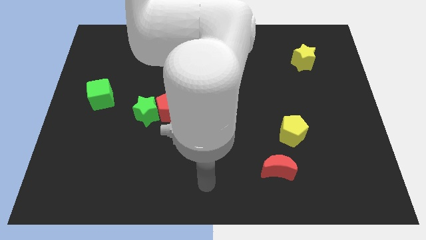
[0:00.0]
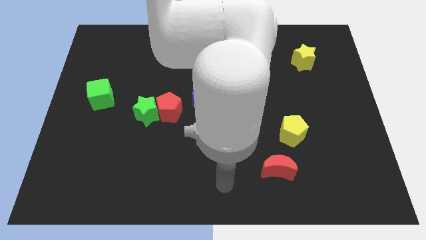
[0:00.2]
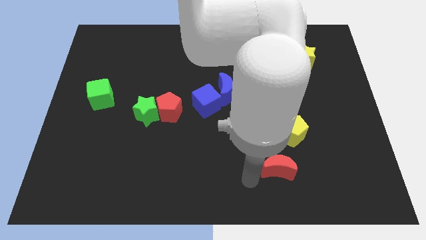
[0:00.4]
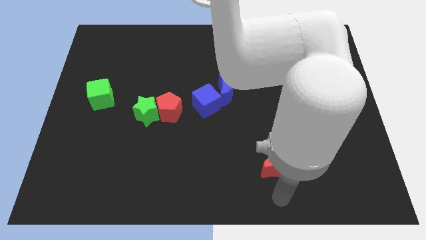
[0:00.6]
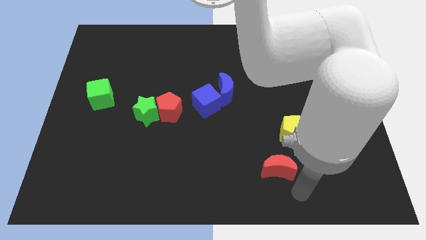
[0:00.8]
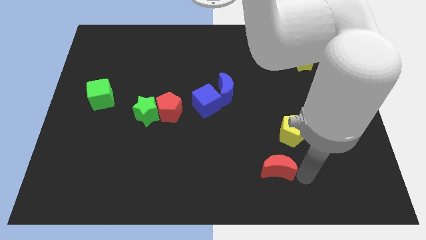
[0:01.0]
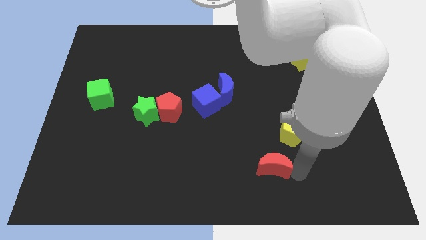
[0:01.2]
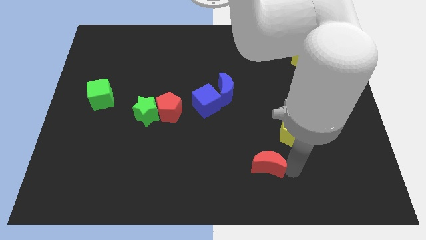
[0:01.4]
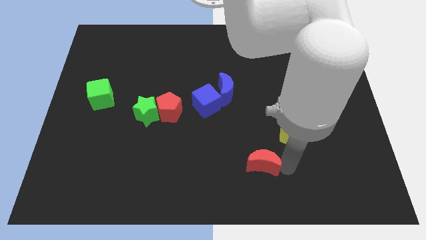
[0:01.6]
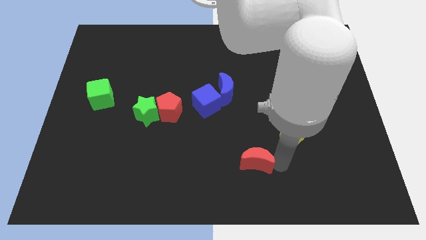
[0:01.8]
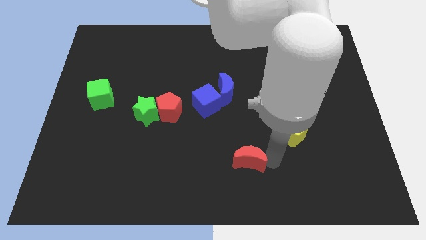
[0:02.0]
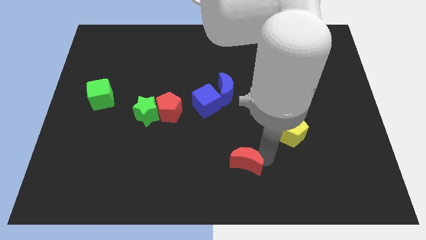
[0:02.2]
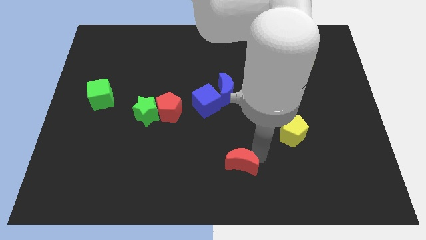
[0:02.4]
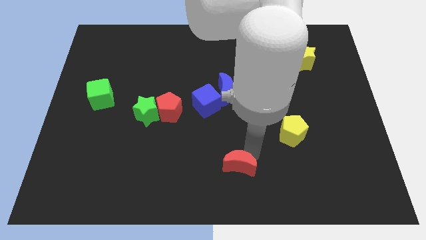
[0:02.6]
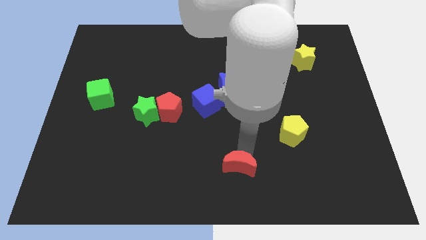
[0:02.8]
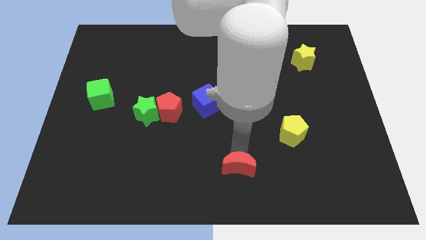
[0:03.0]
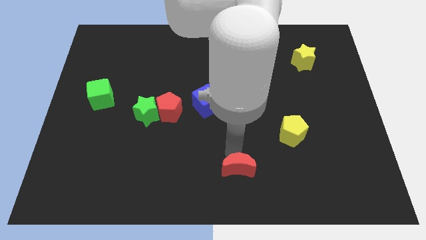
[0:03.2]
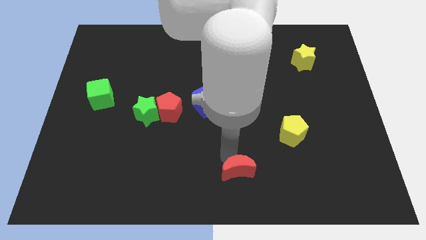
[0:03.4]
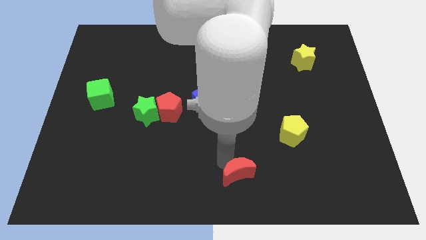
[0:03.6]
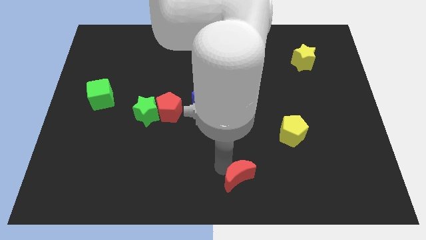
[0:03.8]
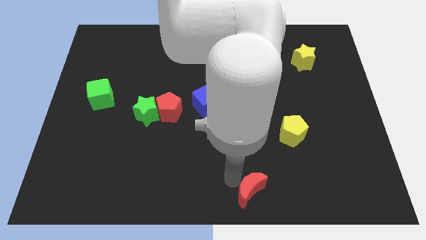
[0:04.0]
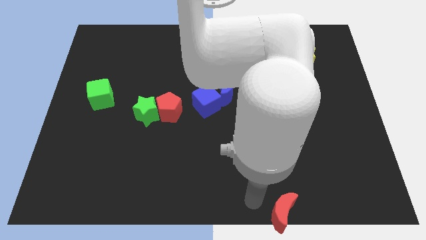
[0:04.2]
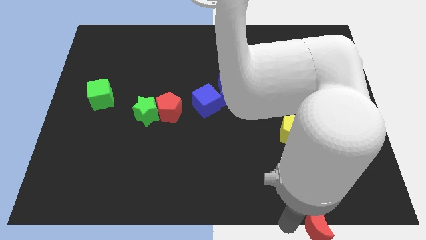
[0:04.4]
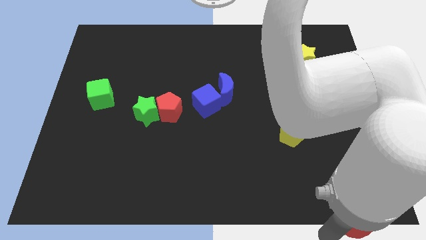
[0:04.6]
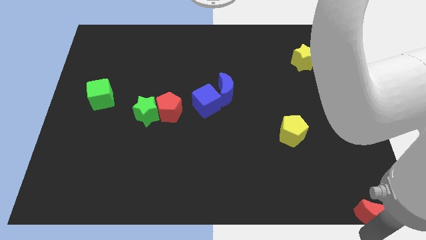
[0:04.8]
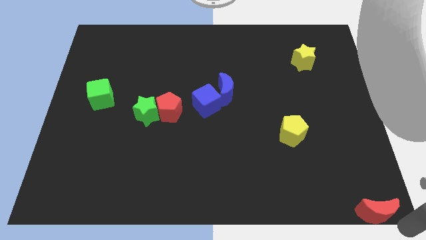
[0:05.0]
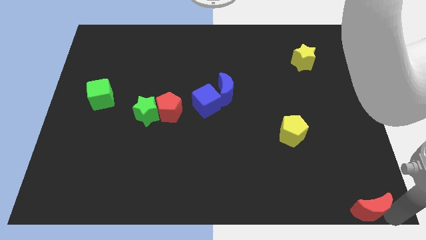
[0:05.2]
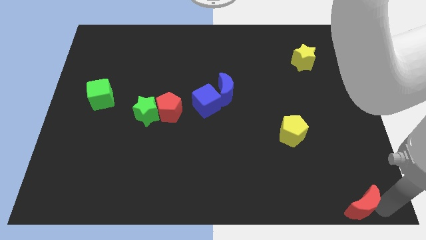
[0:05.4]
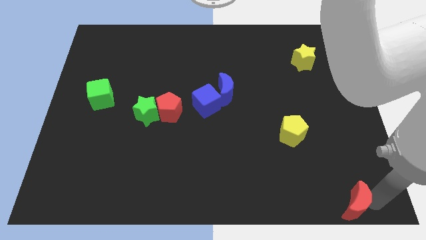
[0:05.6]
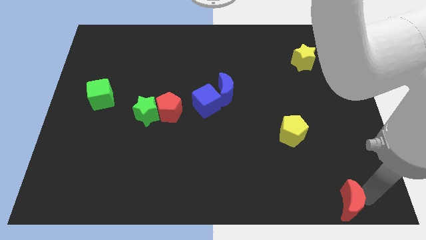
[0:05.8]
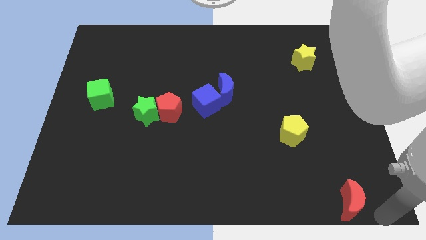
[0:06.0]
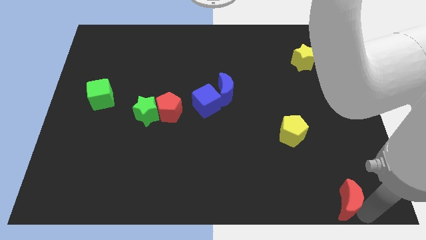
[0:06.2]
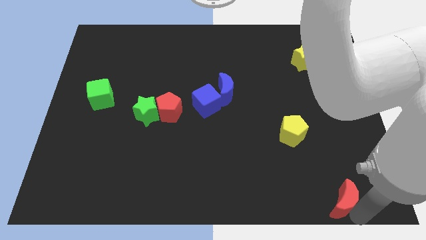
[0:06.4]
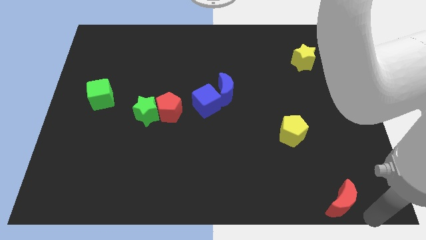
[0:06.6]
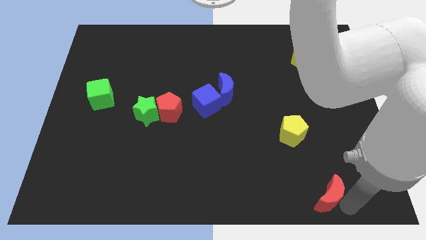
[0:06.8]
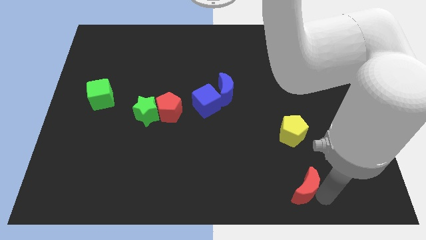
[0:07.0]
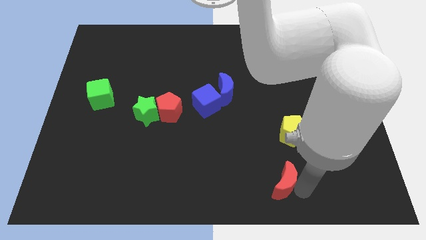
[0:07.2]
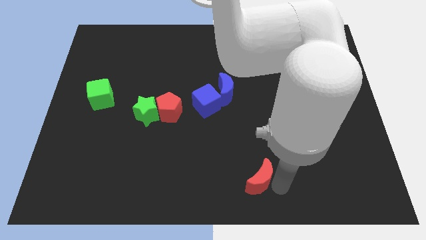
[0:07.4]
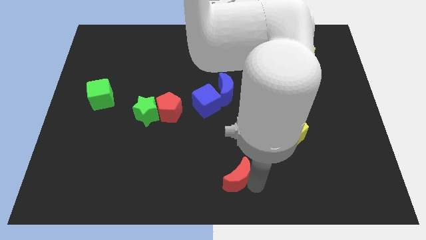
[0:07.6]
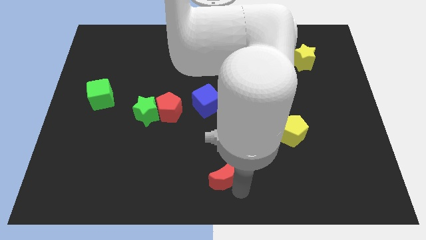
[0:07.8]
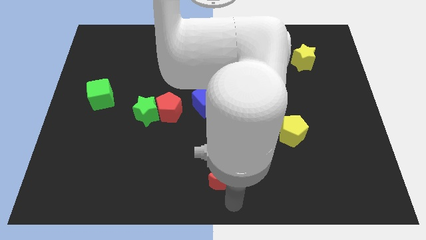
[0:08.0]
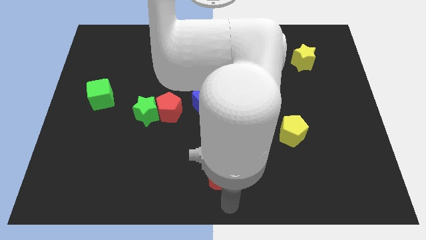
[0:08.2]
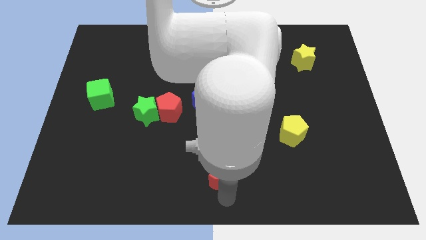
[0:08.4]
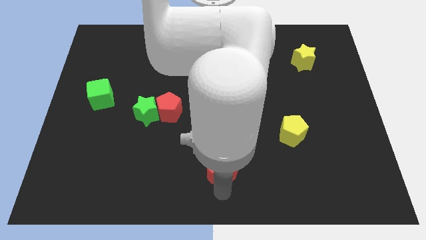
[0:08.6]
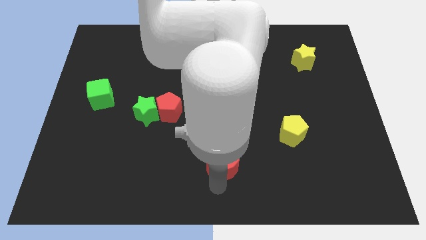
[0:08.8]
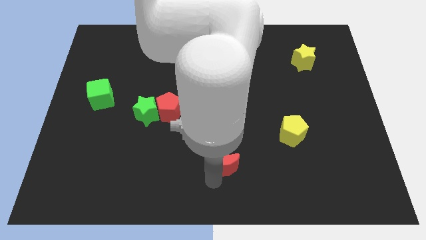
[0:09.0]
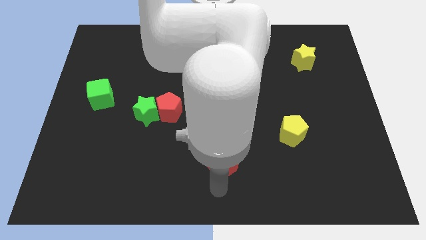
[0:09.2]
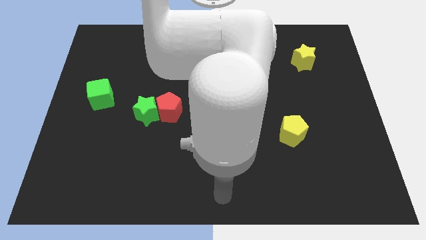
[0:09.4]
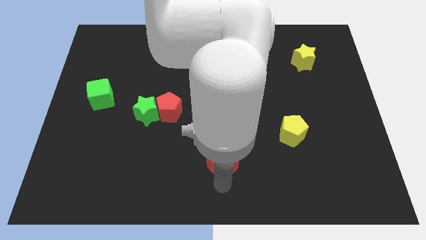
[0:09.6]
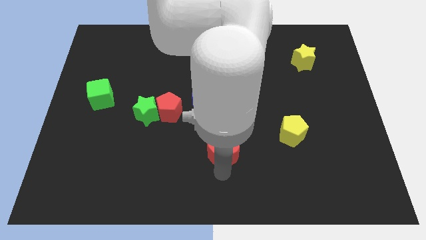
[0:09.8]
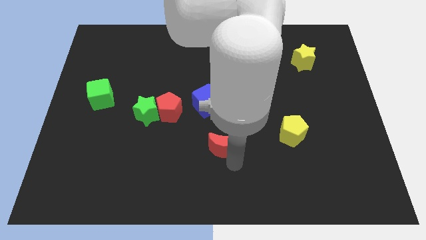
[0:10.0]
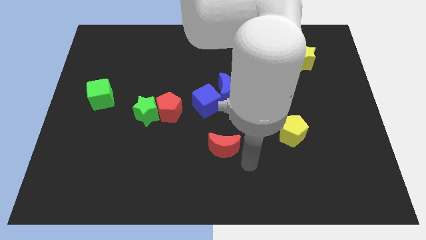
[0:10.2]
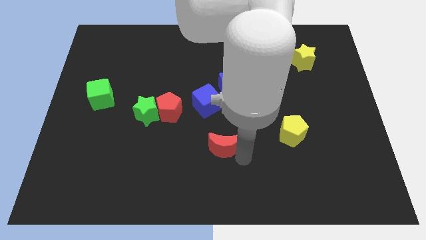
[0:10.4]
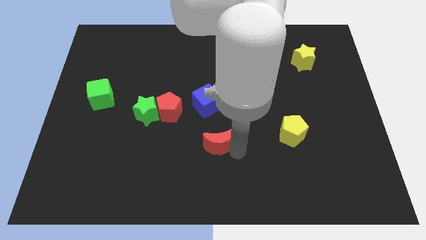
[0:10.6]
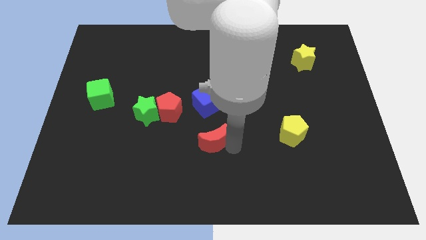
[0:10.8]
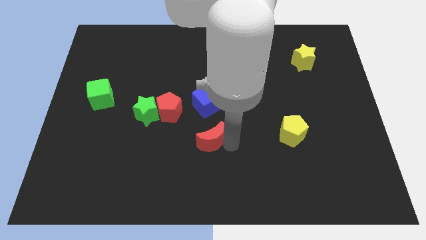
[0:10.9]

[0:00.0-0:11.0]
move the red moon to the bottom right of the red pentagon
